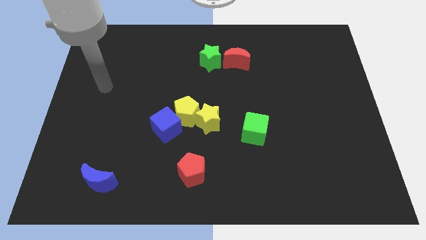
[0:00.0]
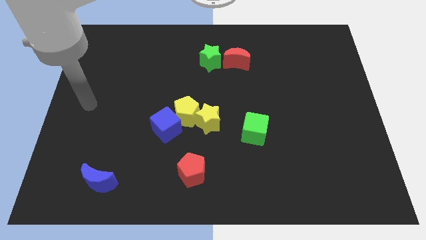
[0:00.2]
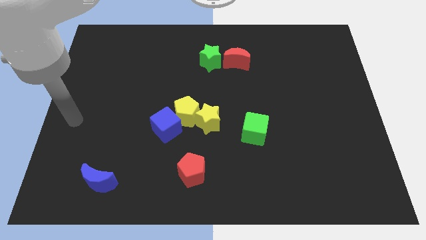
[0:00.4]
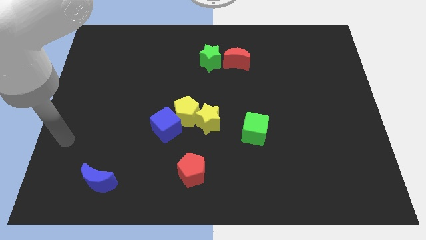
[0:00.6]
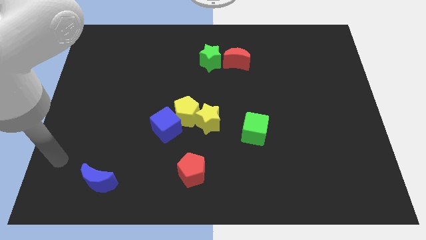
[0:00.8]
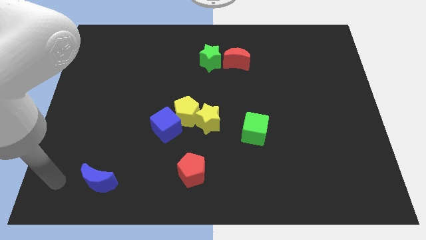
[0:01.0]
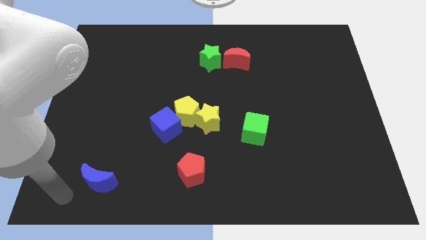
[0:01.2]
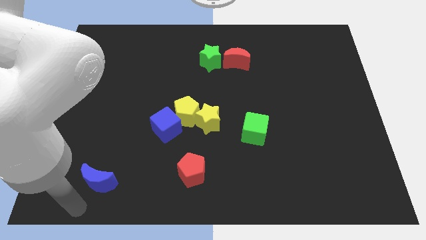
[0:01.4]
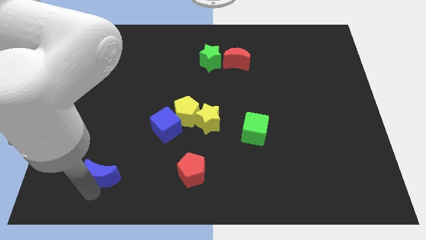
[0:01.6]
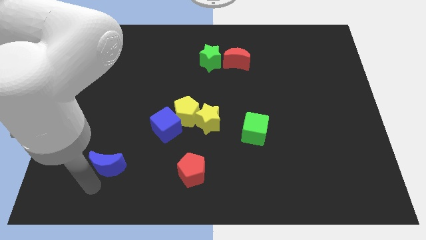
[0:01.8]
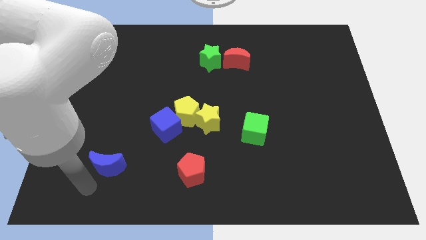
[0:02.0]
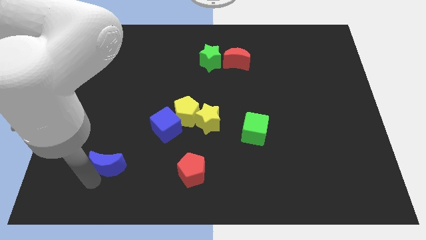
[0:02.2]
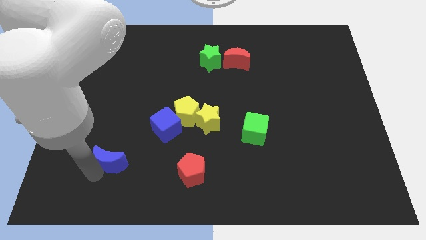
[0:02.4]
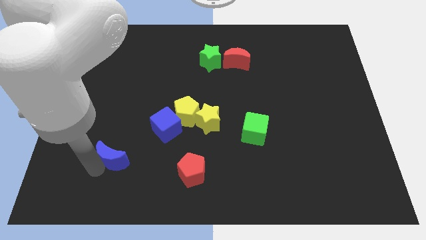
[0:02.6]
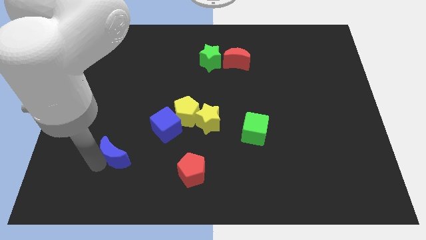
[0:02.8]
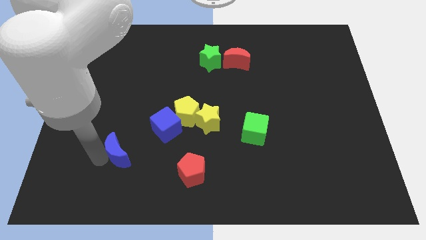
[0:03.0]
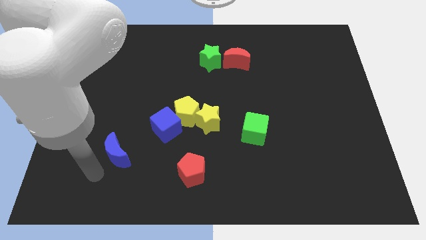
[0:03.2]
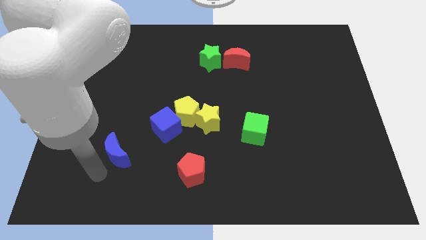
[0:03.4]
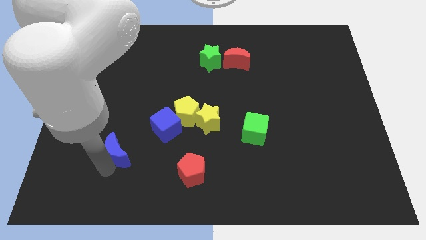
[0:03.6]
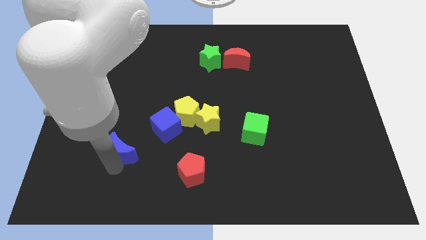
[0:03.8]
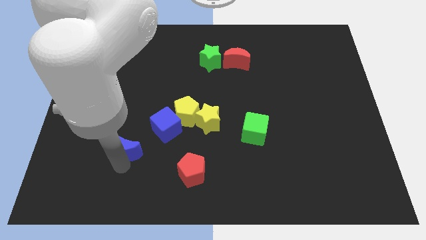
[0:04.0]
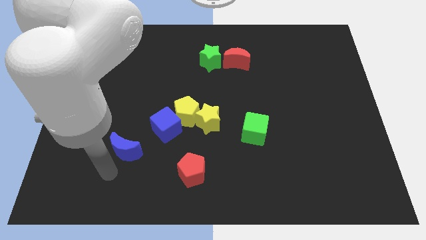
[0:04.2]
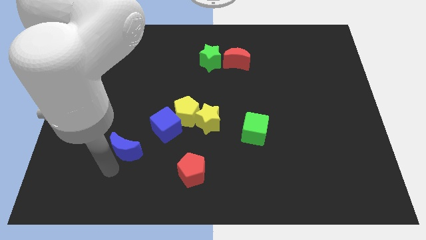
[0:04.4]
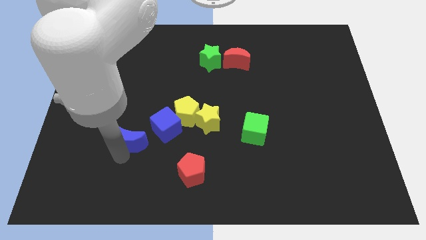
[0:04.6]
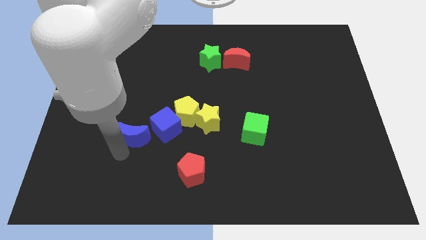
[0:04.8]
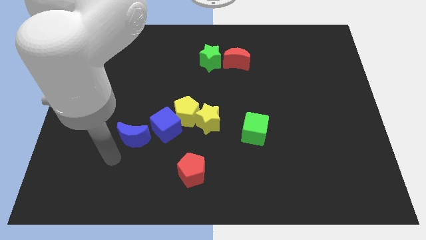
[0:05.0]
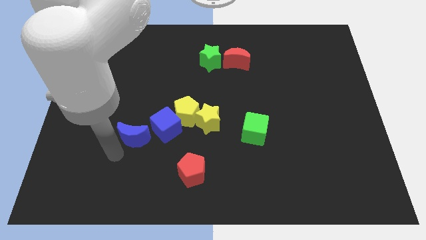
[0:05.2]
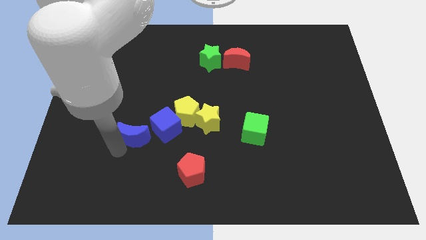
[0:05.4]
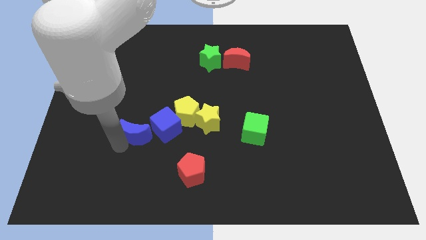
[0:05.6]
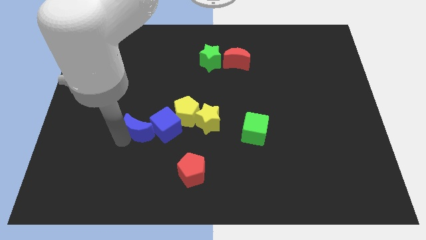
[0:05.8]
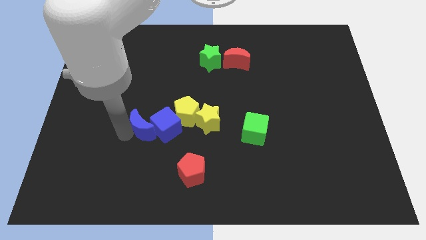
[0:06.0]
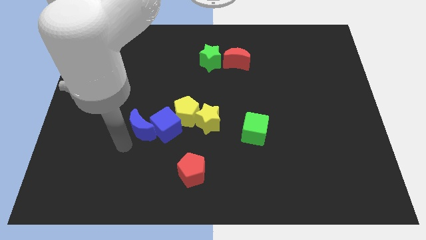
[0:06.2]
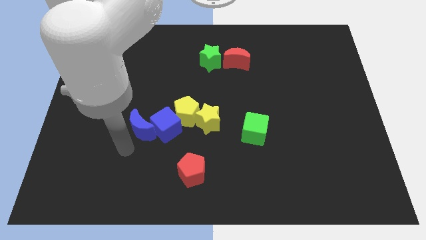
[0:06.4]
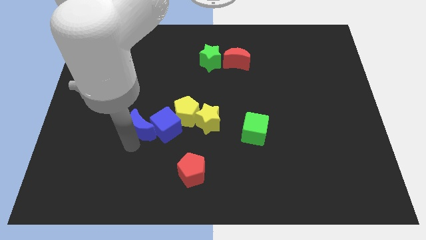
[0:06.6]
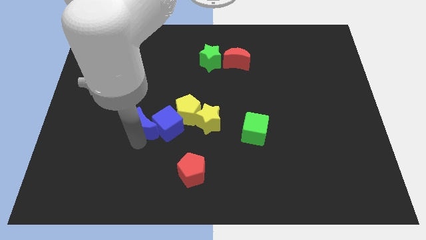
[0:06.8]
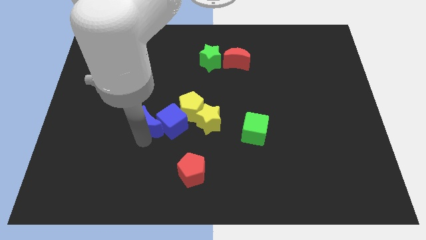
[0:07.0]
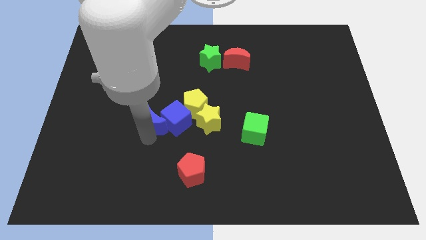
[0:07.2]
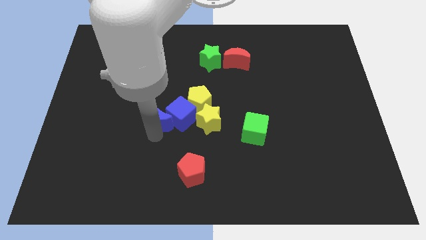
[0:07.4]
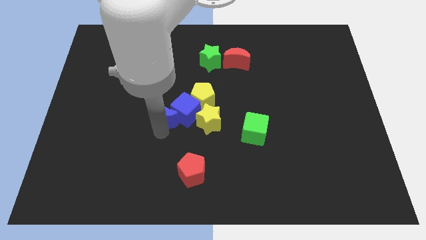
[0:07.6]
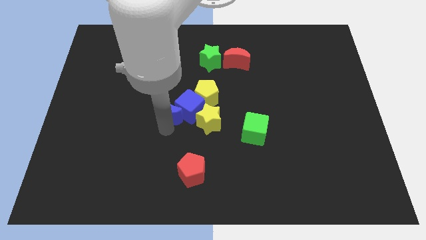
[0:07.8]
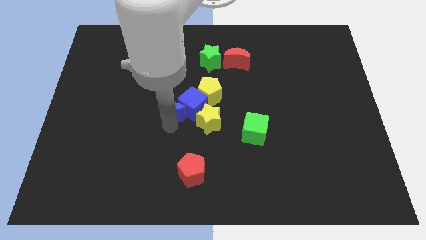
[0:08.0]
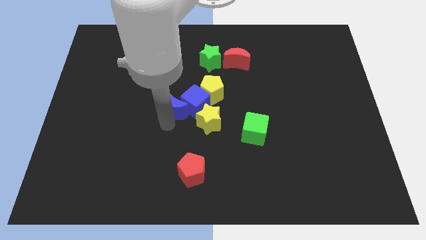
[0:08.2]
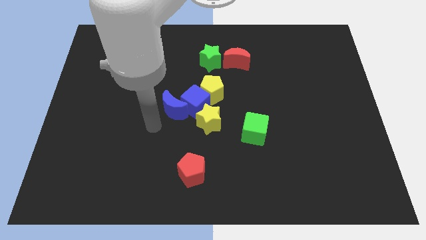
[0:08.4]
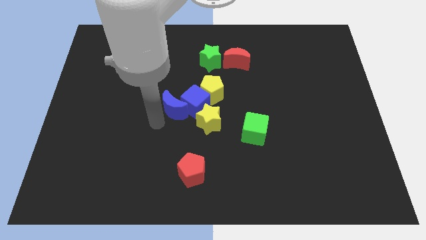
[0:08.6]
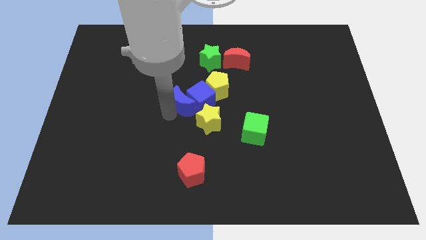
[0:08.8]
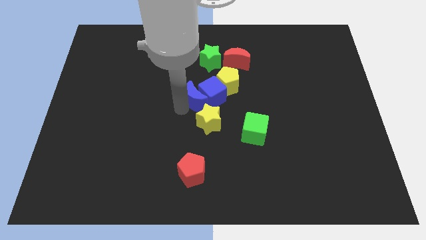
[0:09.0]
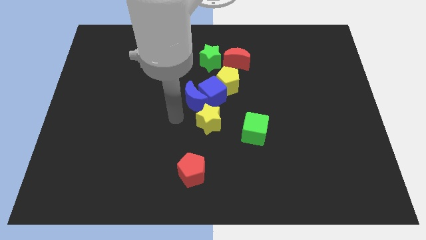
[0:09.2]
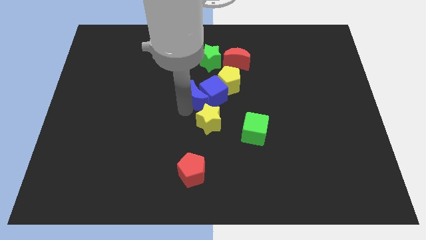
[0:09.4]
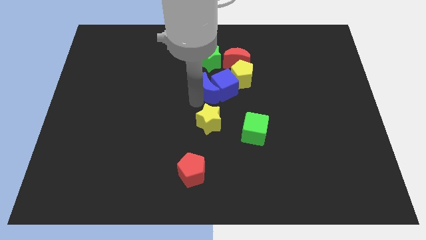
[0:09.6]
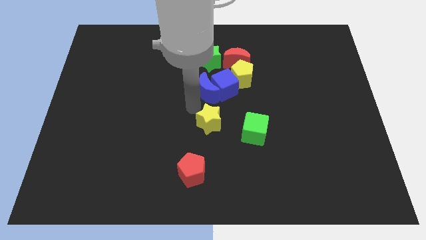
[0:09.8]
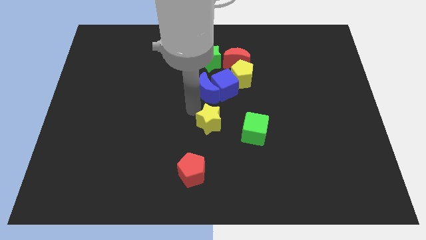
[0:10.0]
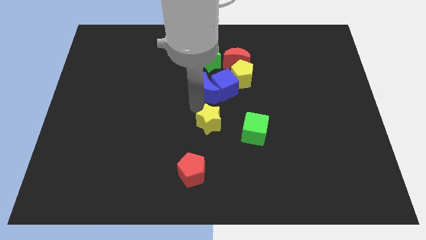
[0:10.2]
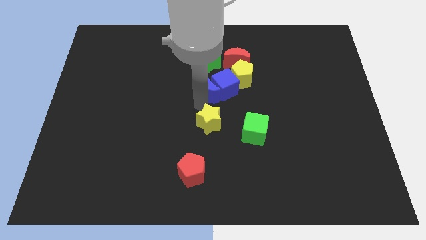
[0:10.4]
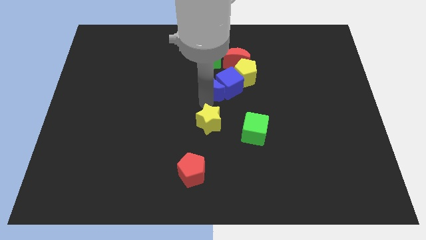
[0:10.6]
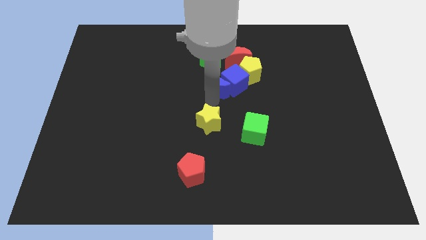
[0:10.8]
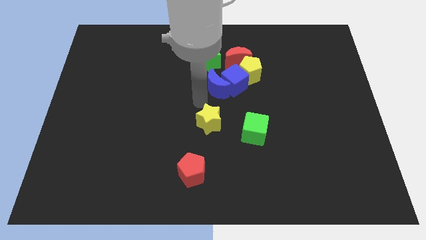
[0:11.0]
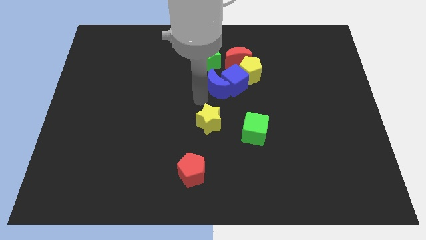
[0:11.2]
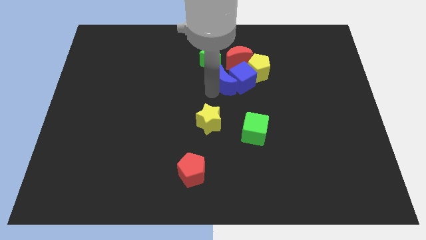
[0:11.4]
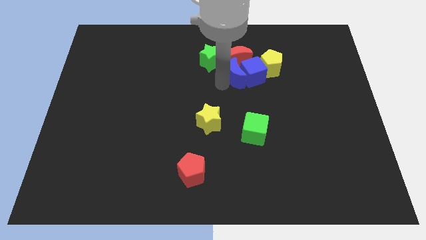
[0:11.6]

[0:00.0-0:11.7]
slide the blue moon to the bottom right of the red moon

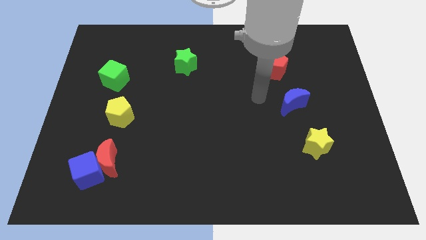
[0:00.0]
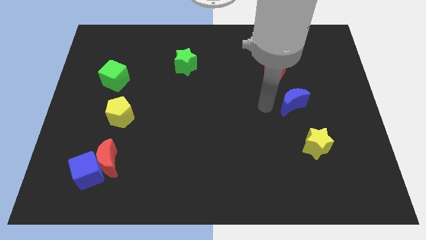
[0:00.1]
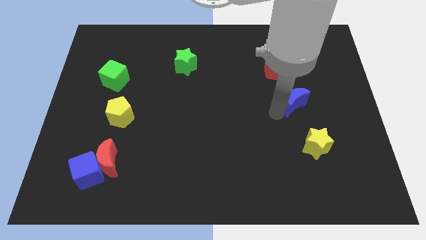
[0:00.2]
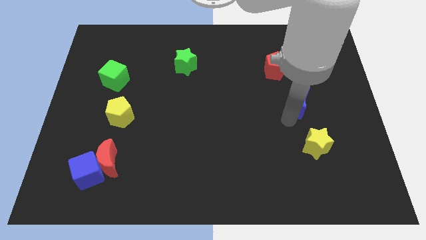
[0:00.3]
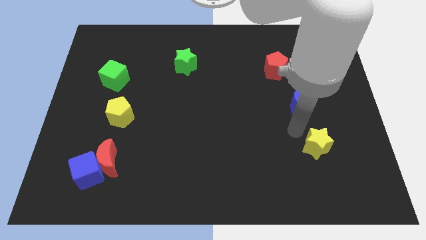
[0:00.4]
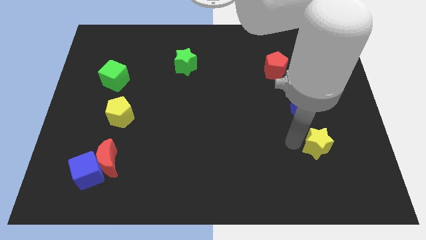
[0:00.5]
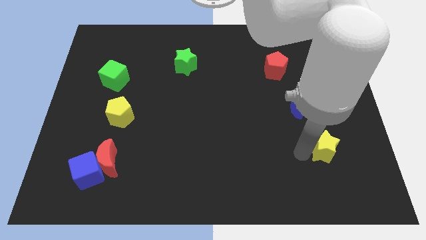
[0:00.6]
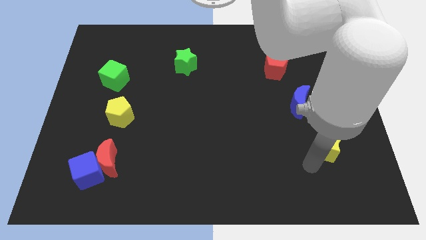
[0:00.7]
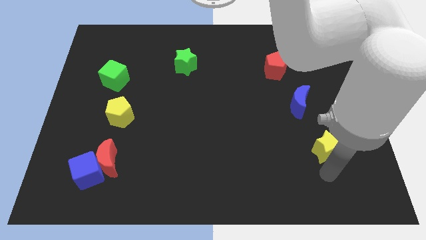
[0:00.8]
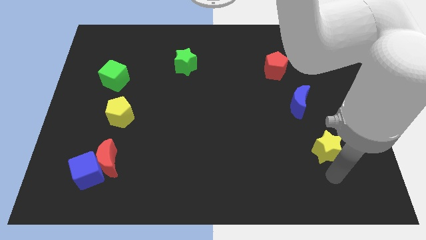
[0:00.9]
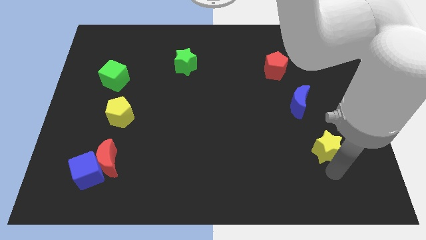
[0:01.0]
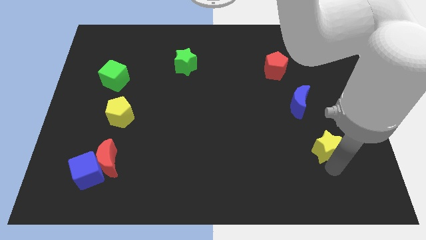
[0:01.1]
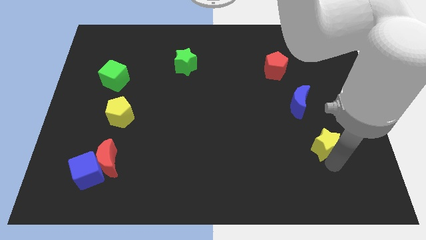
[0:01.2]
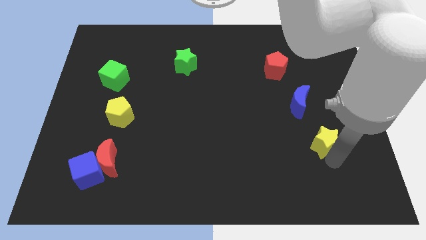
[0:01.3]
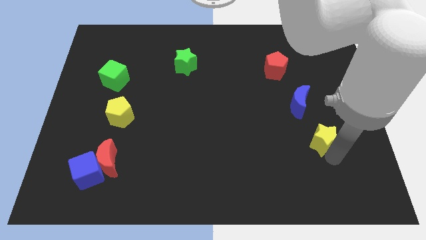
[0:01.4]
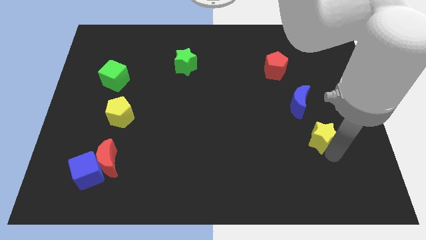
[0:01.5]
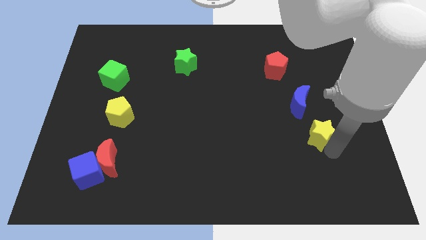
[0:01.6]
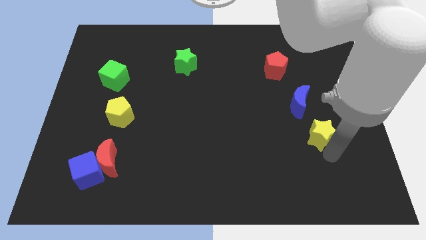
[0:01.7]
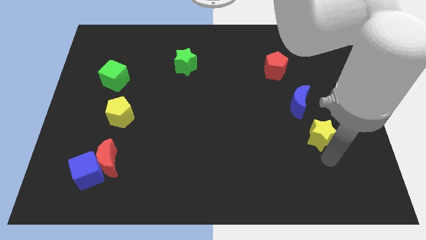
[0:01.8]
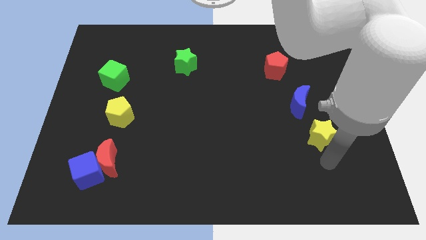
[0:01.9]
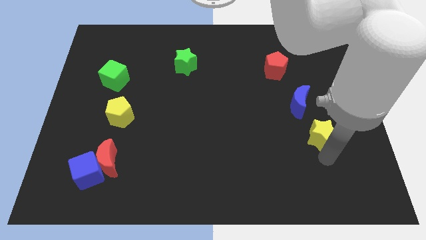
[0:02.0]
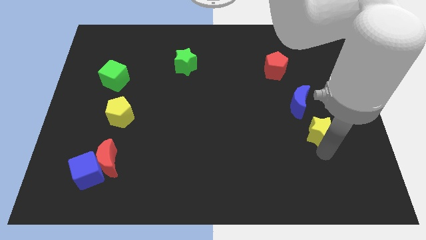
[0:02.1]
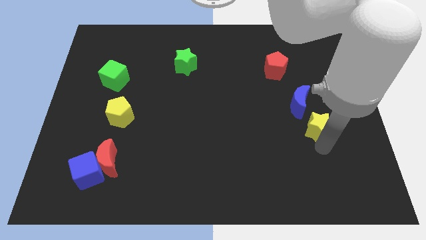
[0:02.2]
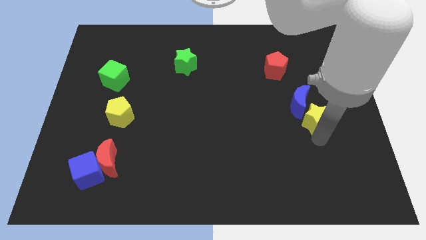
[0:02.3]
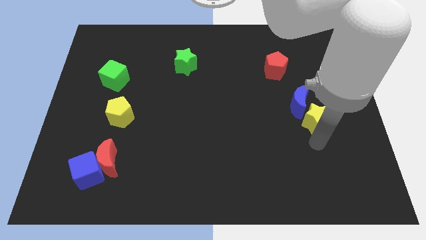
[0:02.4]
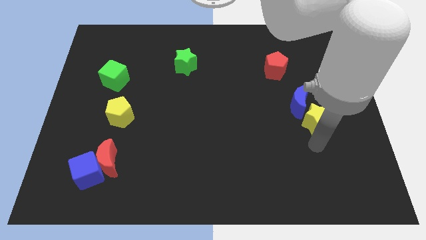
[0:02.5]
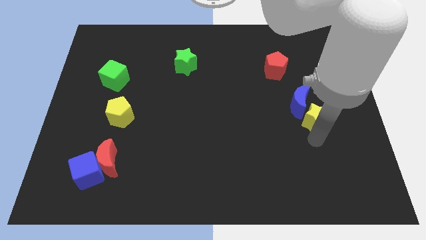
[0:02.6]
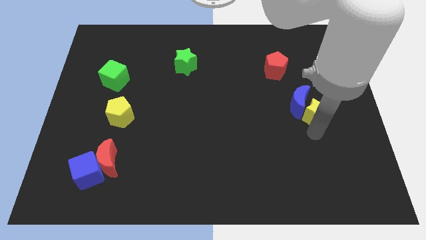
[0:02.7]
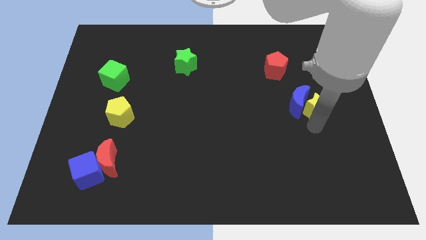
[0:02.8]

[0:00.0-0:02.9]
put the yellow star to the top right side of the blue moon
